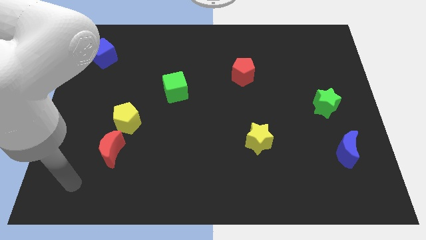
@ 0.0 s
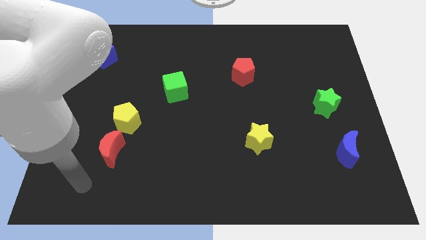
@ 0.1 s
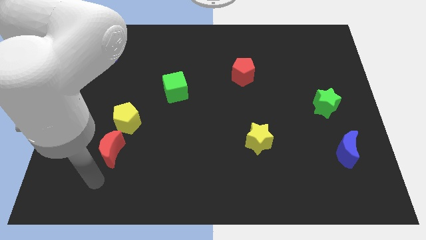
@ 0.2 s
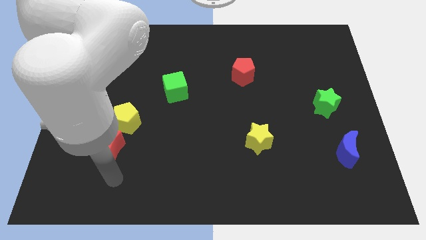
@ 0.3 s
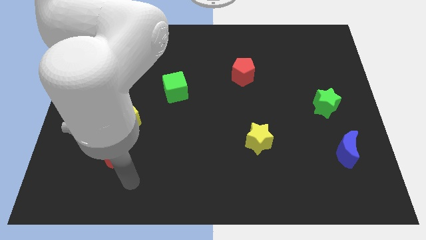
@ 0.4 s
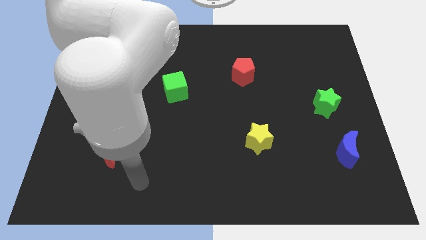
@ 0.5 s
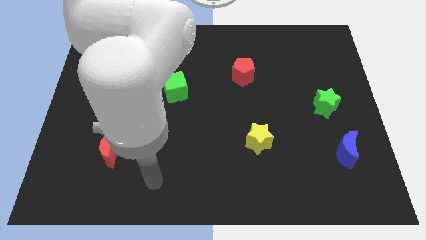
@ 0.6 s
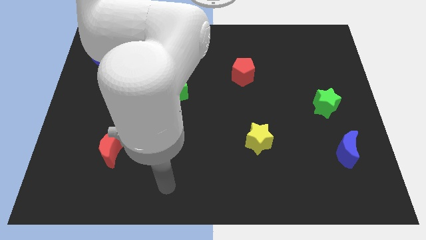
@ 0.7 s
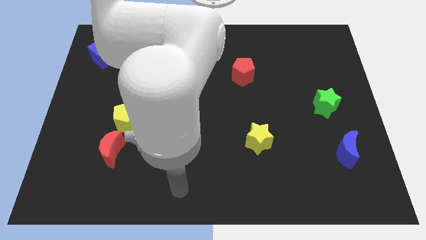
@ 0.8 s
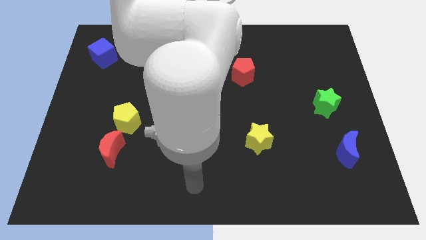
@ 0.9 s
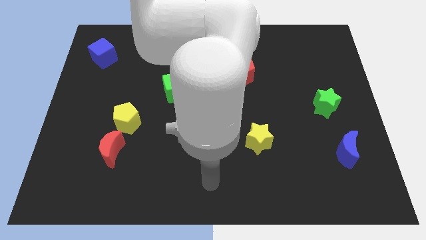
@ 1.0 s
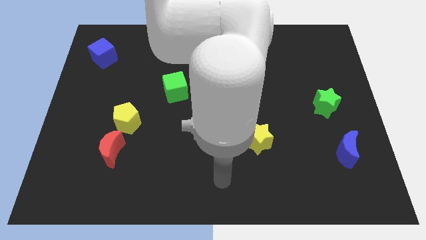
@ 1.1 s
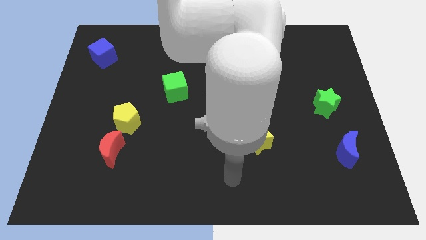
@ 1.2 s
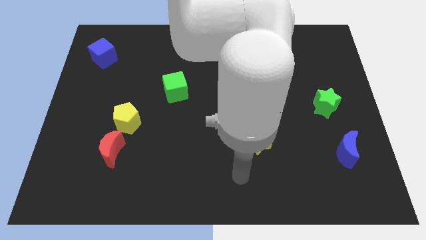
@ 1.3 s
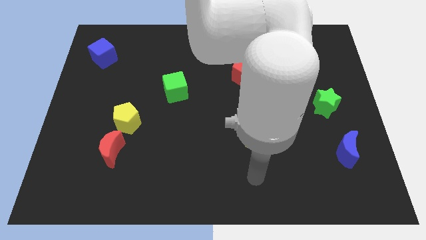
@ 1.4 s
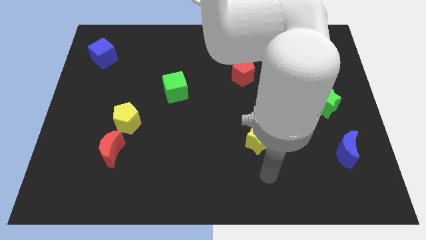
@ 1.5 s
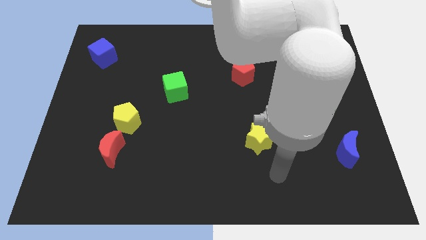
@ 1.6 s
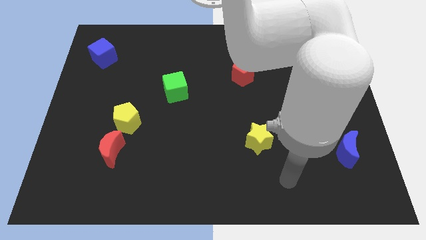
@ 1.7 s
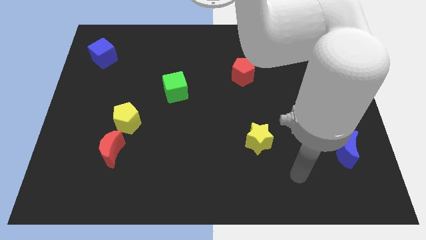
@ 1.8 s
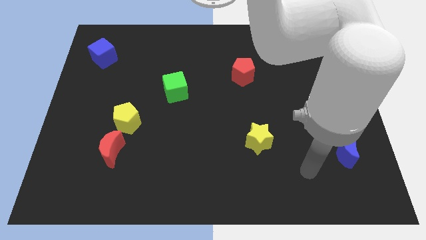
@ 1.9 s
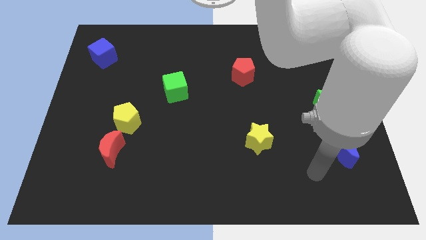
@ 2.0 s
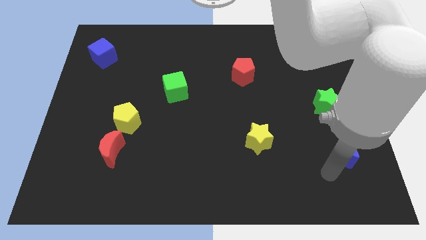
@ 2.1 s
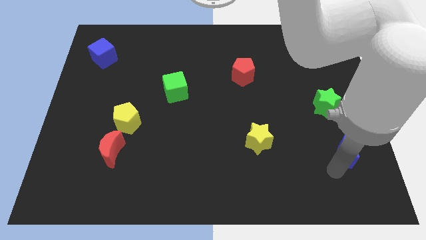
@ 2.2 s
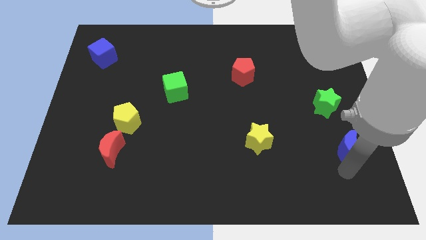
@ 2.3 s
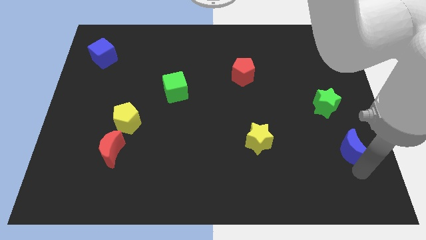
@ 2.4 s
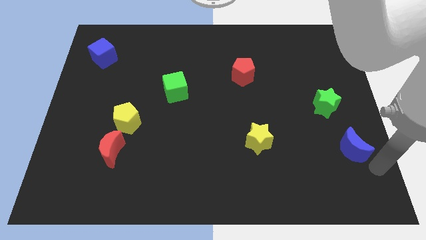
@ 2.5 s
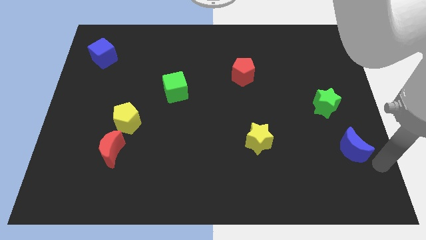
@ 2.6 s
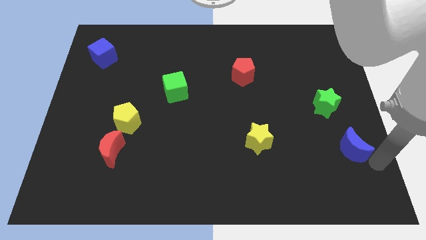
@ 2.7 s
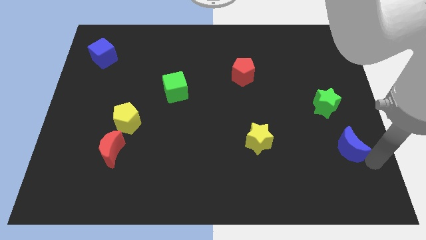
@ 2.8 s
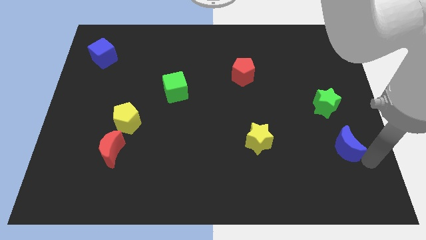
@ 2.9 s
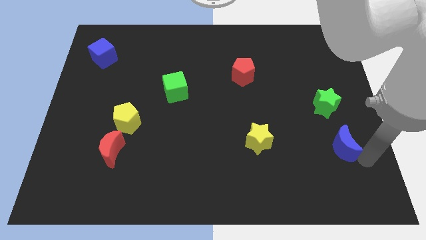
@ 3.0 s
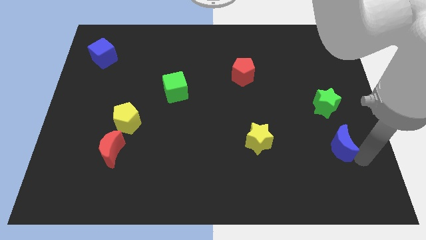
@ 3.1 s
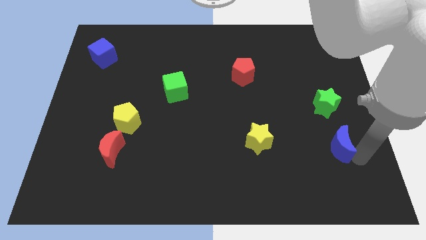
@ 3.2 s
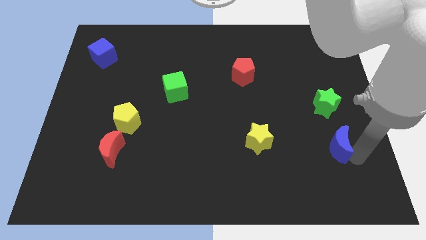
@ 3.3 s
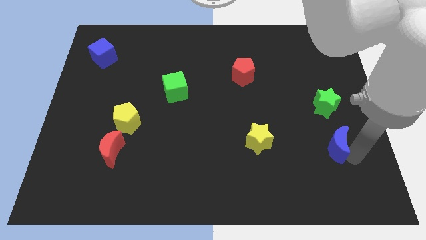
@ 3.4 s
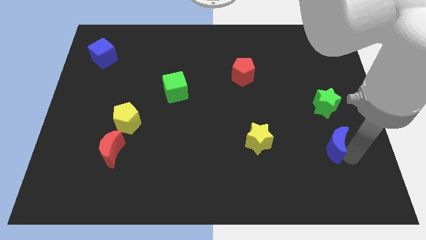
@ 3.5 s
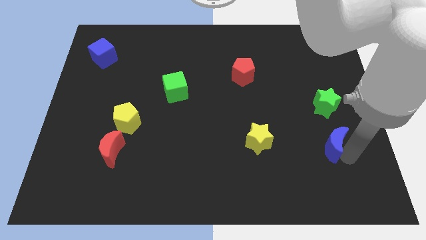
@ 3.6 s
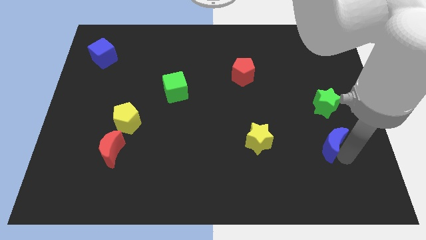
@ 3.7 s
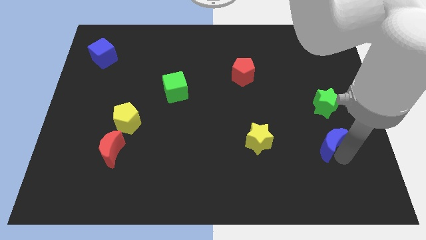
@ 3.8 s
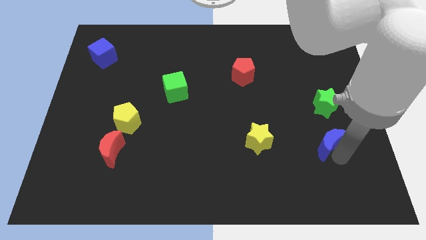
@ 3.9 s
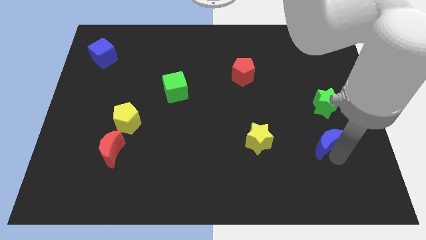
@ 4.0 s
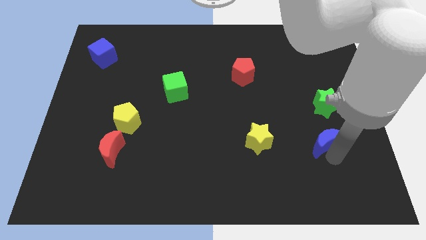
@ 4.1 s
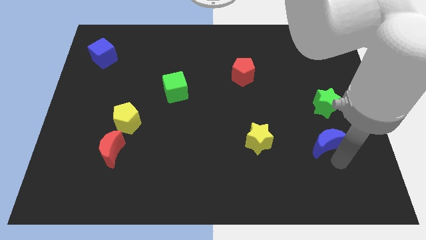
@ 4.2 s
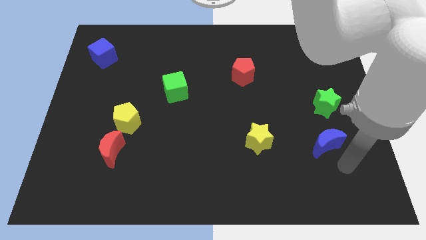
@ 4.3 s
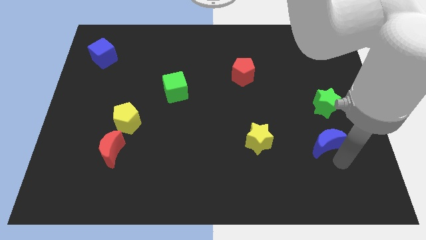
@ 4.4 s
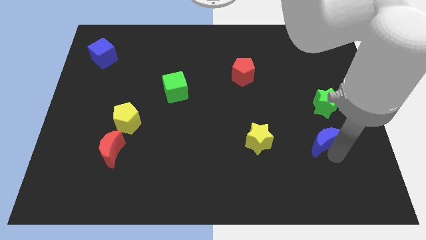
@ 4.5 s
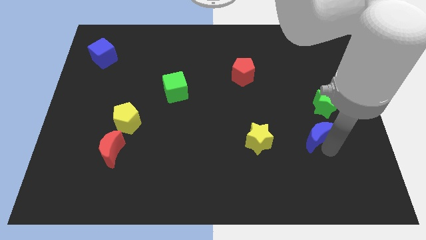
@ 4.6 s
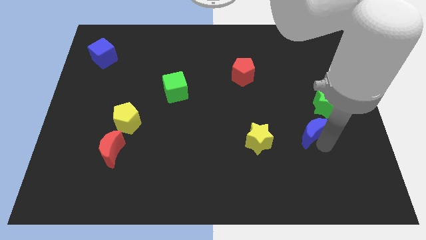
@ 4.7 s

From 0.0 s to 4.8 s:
slightly move the blue moon diagonally upwards and to the left

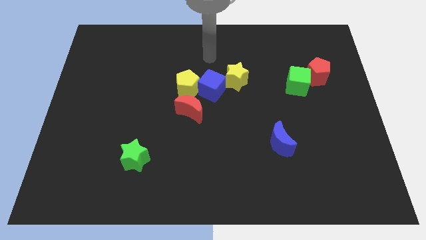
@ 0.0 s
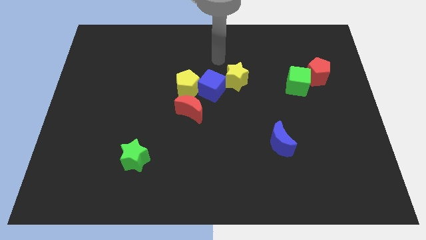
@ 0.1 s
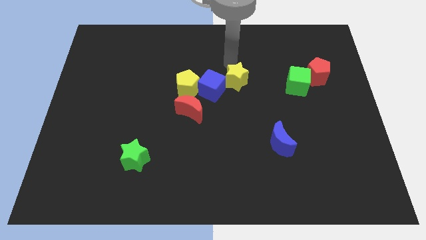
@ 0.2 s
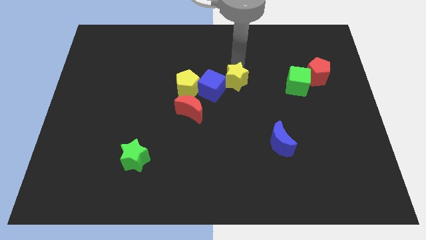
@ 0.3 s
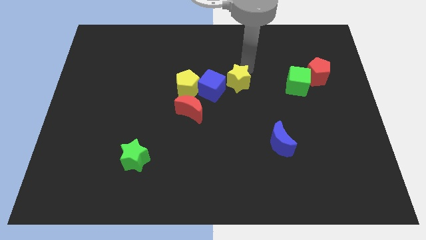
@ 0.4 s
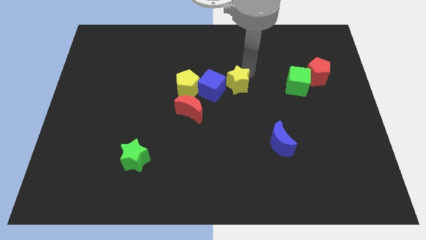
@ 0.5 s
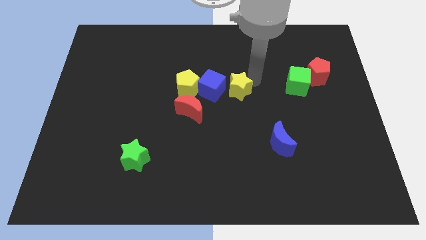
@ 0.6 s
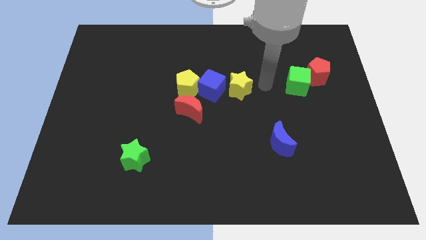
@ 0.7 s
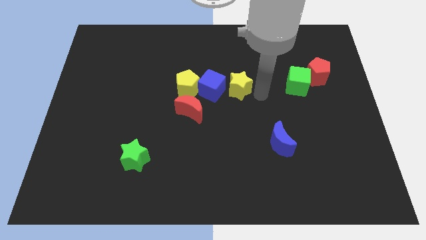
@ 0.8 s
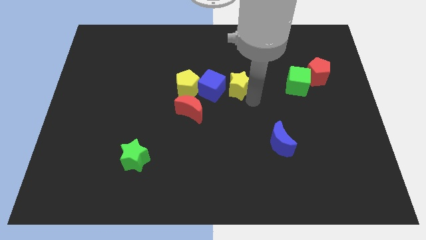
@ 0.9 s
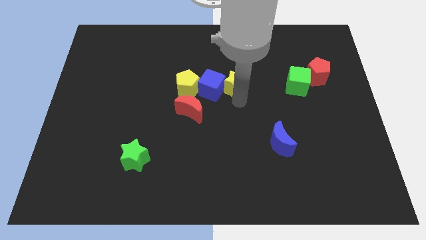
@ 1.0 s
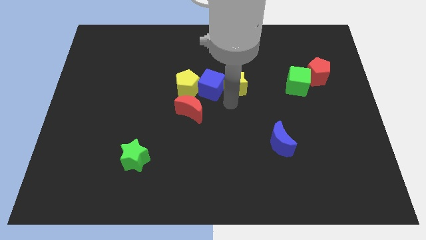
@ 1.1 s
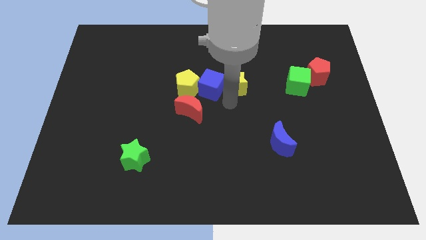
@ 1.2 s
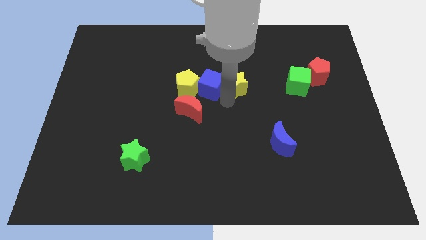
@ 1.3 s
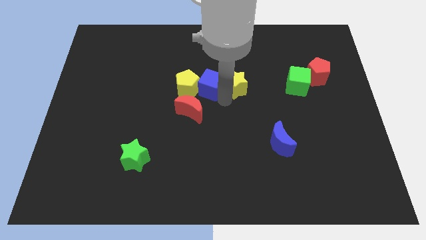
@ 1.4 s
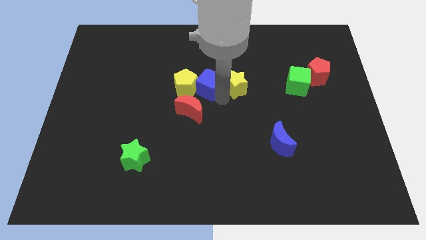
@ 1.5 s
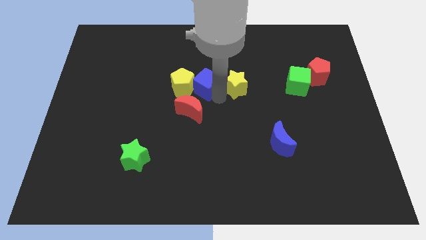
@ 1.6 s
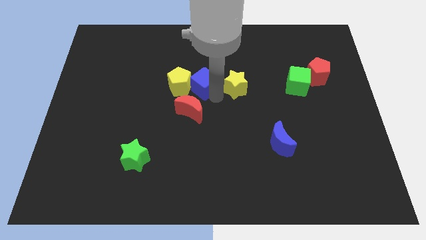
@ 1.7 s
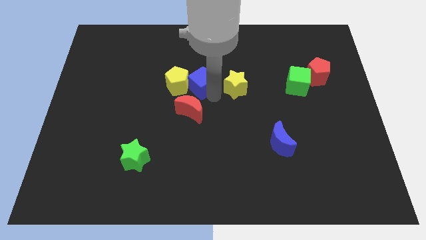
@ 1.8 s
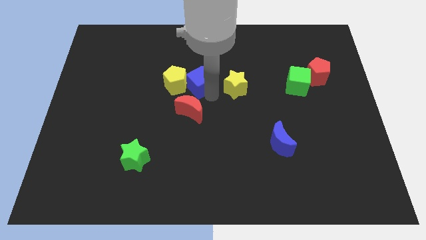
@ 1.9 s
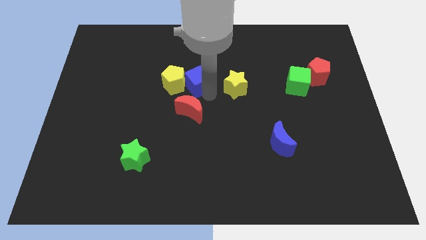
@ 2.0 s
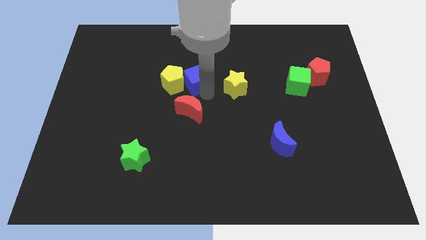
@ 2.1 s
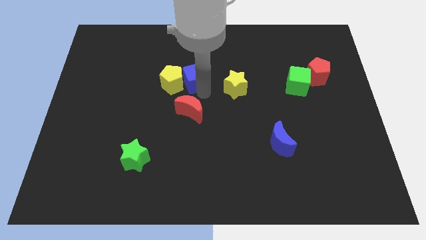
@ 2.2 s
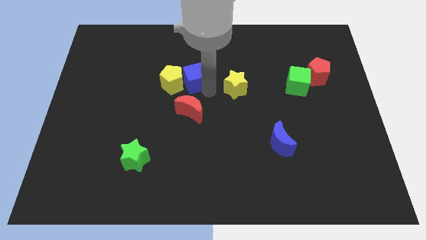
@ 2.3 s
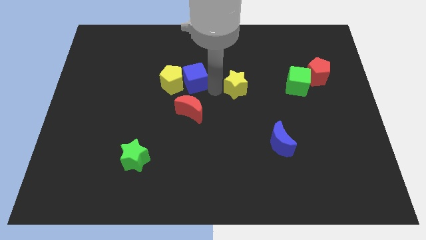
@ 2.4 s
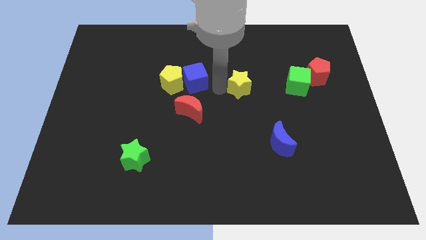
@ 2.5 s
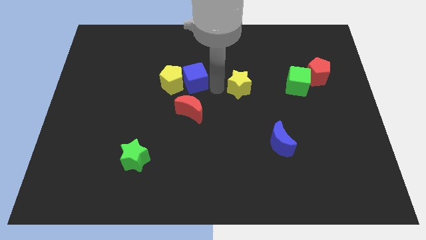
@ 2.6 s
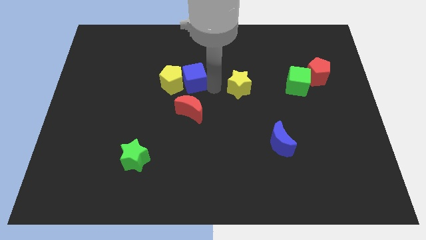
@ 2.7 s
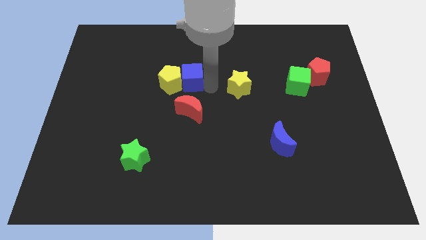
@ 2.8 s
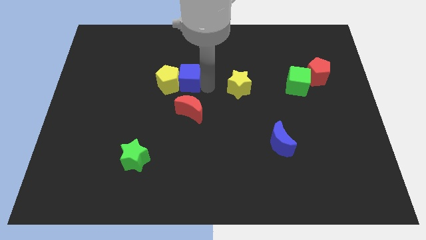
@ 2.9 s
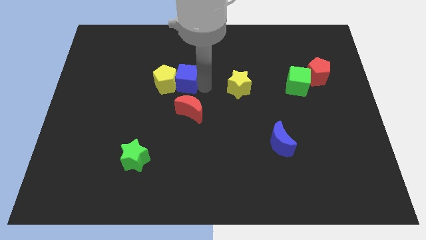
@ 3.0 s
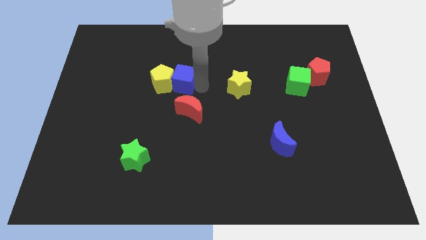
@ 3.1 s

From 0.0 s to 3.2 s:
slightly slide the blue cube left
